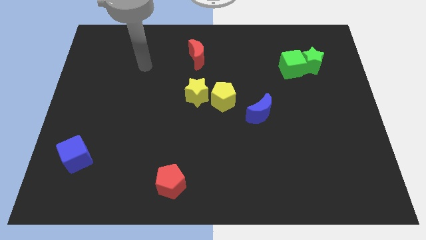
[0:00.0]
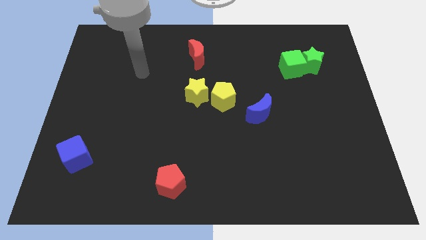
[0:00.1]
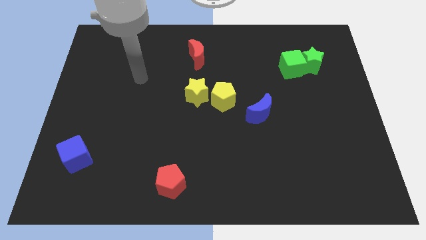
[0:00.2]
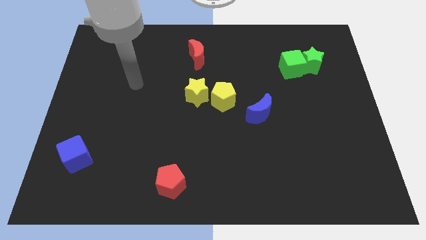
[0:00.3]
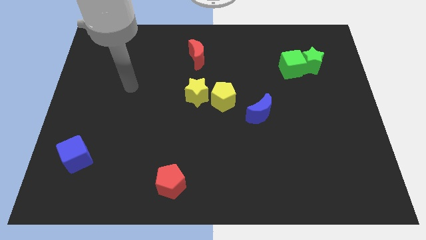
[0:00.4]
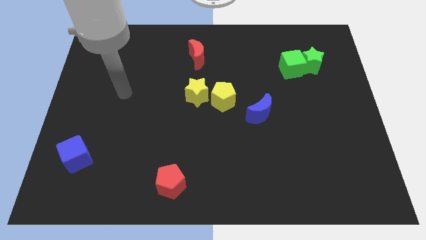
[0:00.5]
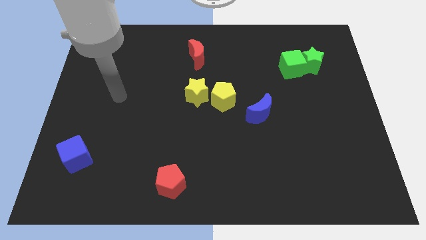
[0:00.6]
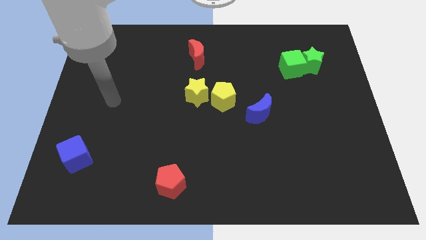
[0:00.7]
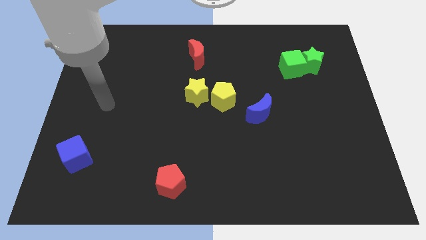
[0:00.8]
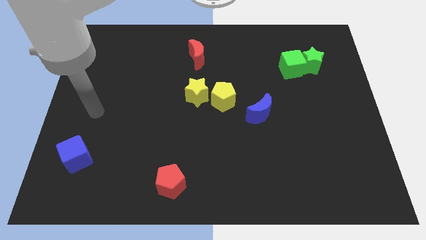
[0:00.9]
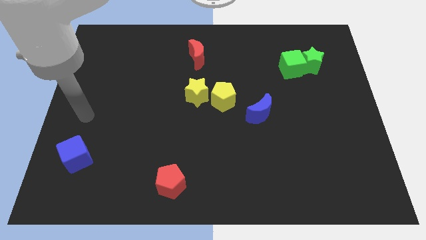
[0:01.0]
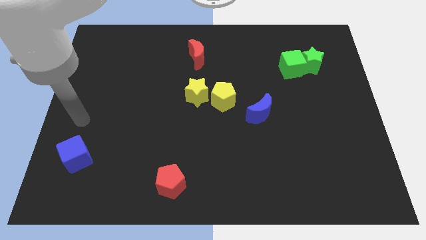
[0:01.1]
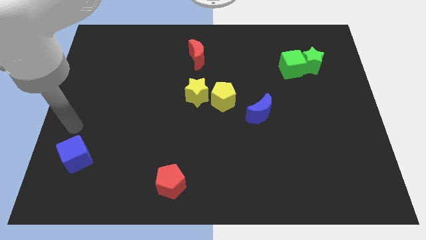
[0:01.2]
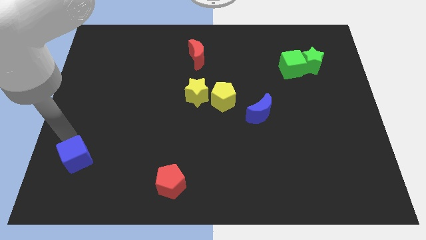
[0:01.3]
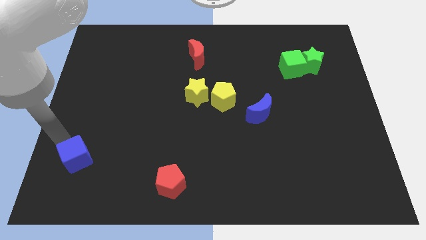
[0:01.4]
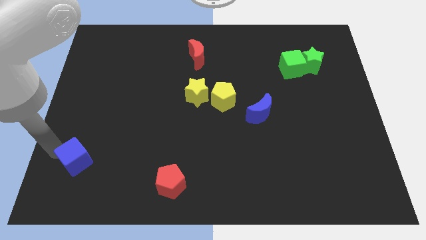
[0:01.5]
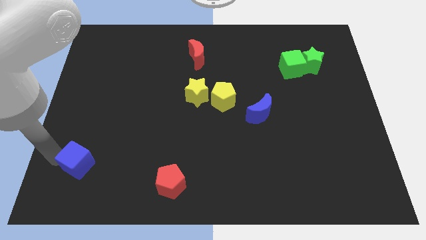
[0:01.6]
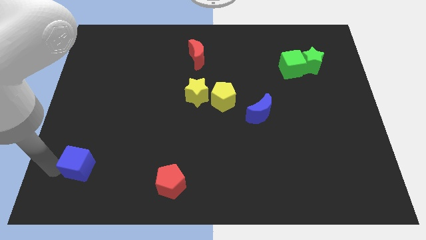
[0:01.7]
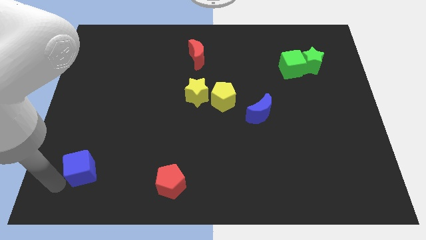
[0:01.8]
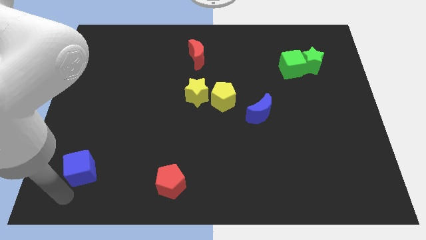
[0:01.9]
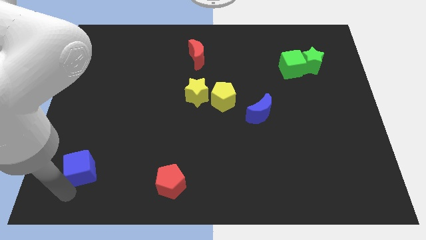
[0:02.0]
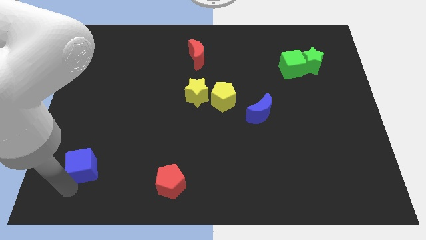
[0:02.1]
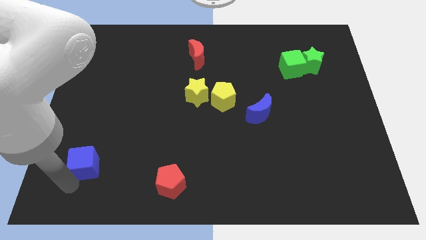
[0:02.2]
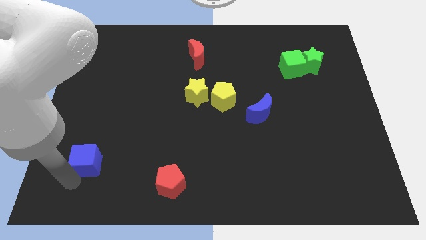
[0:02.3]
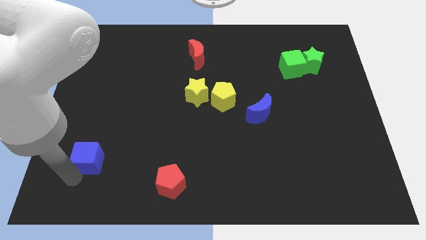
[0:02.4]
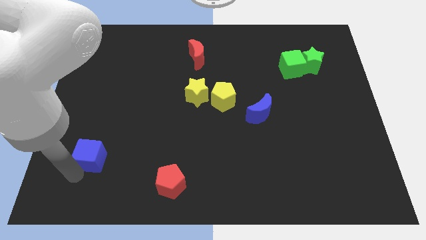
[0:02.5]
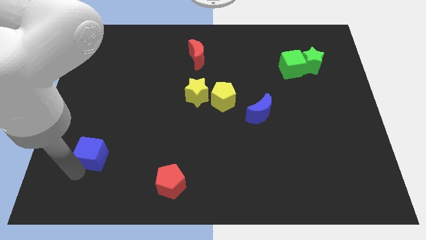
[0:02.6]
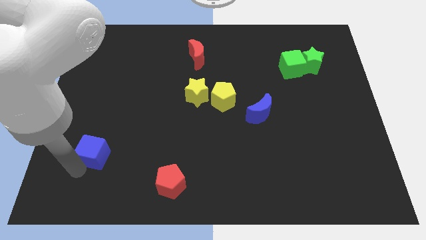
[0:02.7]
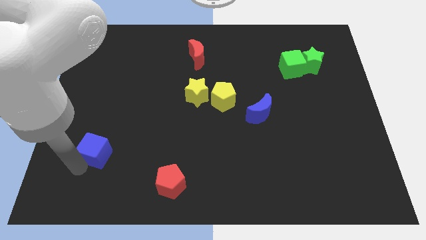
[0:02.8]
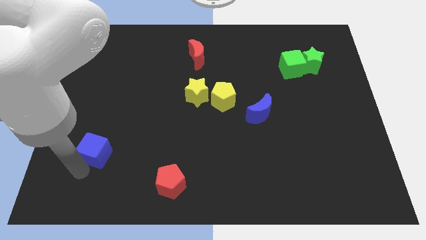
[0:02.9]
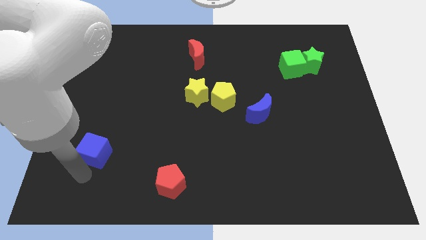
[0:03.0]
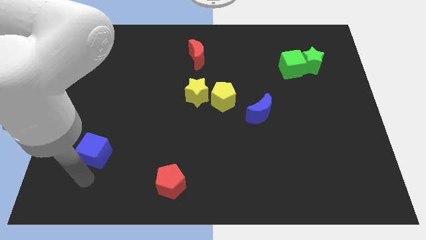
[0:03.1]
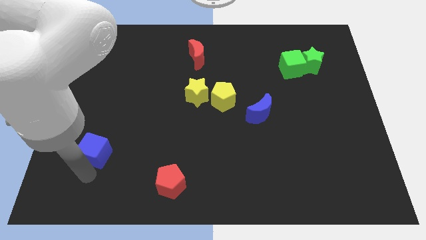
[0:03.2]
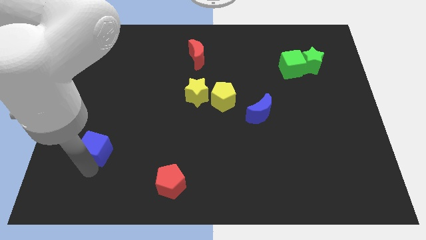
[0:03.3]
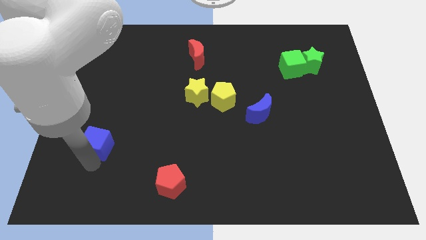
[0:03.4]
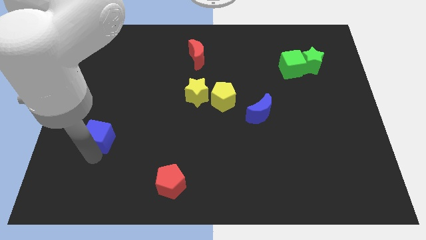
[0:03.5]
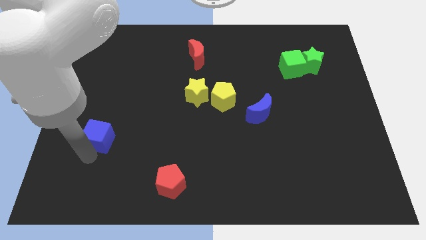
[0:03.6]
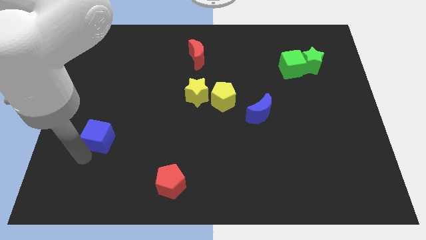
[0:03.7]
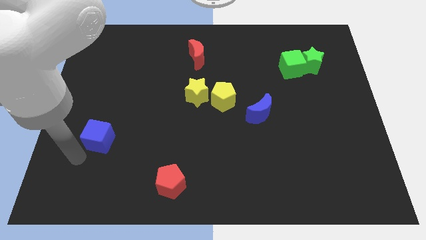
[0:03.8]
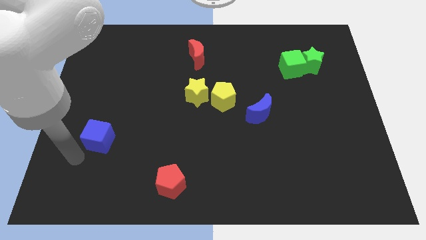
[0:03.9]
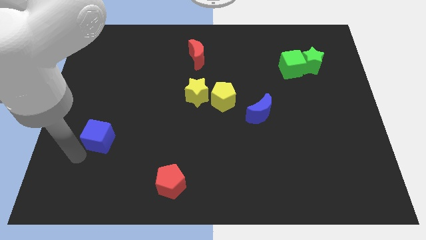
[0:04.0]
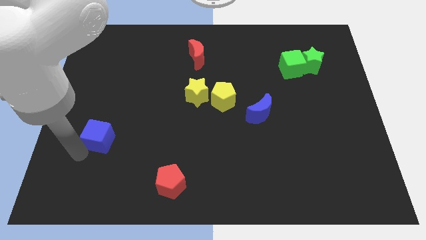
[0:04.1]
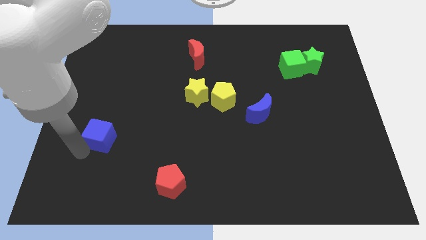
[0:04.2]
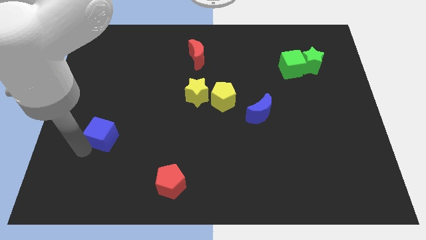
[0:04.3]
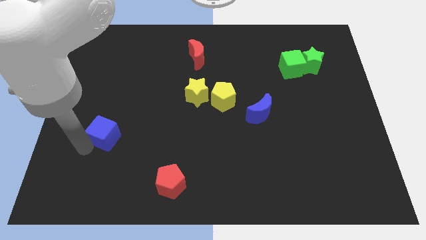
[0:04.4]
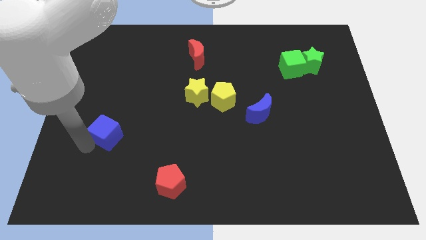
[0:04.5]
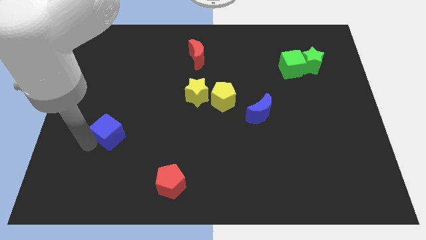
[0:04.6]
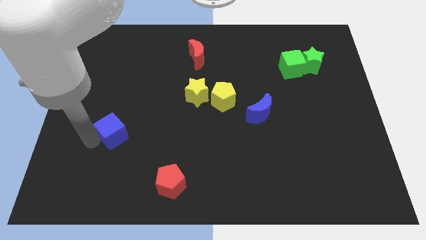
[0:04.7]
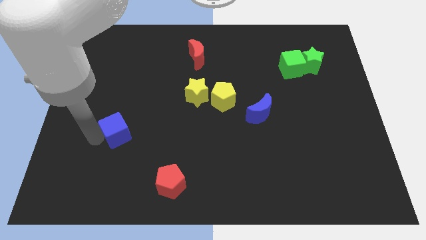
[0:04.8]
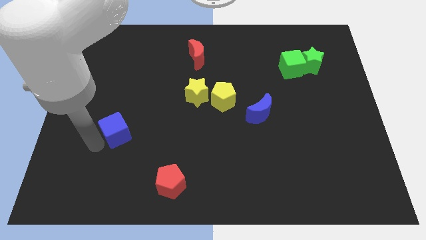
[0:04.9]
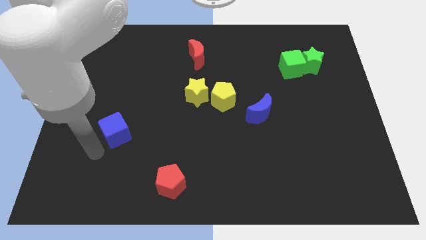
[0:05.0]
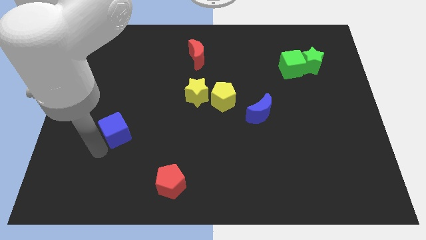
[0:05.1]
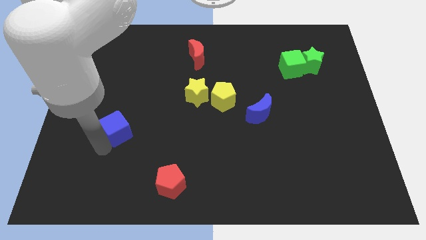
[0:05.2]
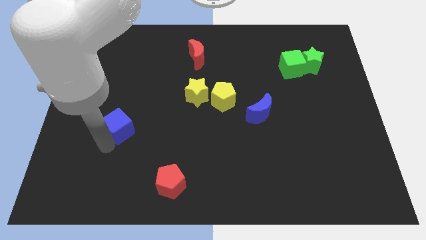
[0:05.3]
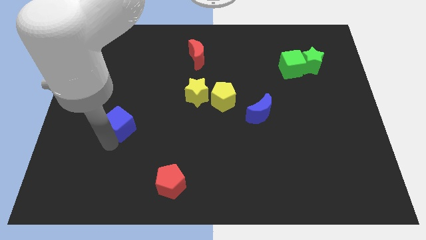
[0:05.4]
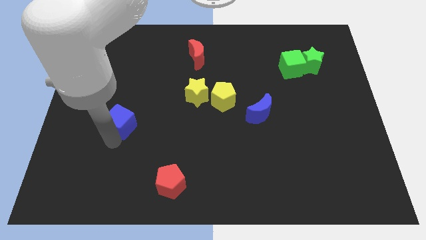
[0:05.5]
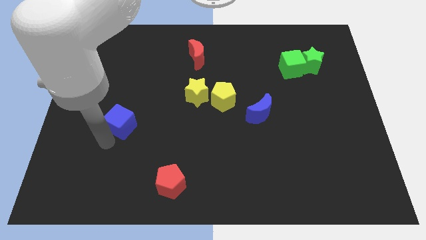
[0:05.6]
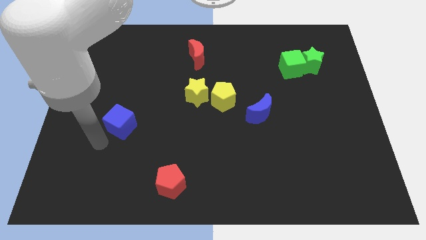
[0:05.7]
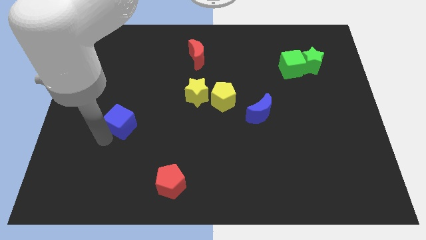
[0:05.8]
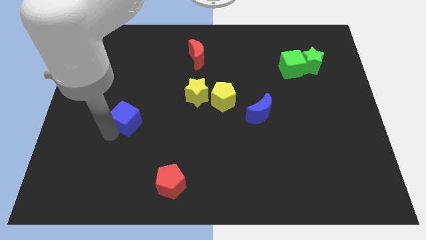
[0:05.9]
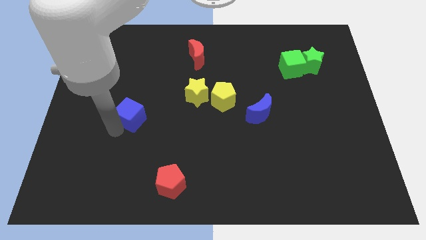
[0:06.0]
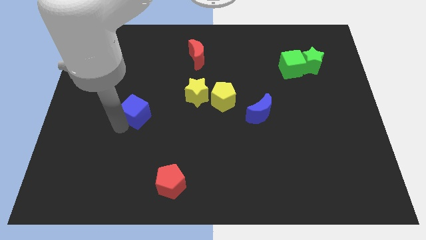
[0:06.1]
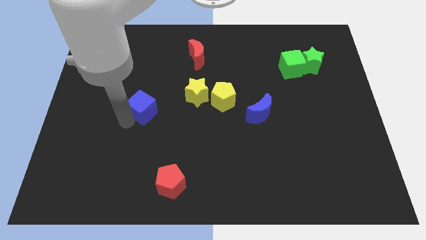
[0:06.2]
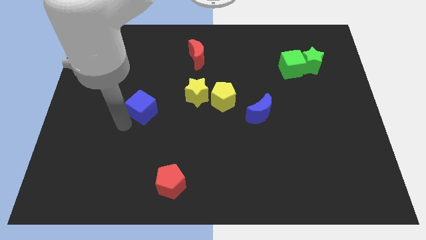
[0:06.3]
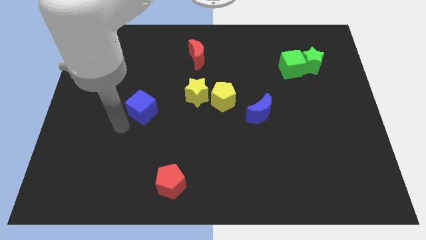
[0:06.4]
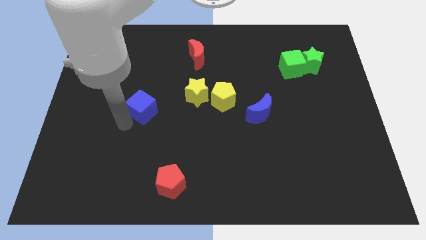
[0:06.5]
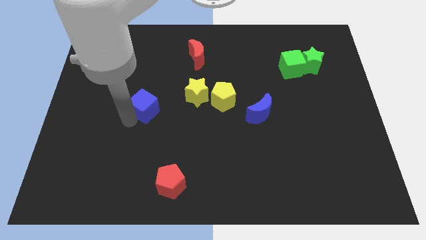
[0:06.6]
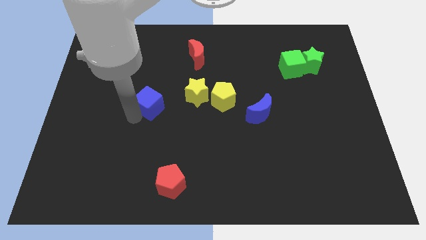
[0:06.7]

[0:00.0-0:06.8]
push the blue cube upwards and to the right

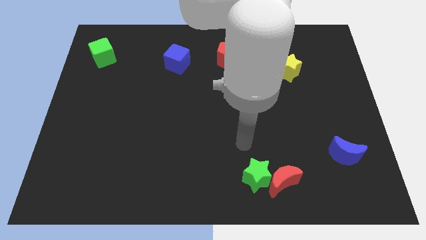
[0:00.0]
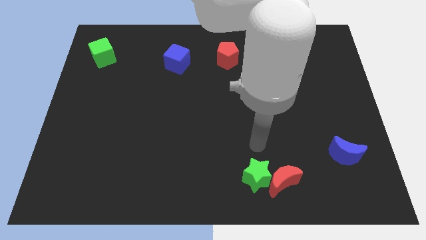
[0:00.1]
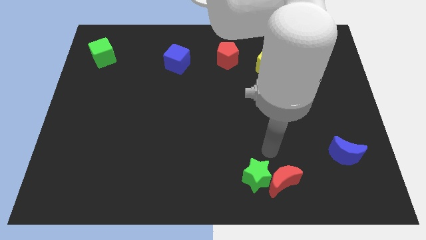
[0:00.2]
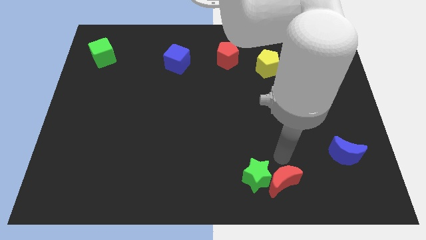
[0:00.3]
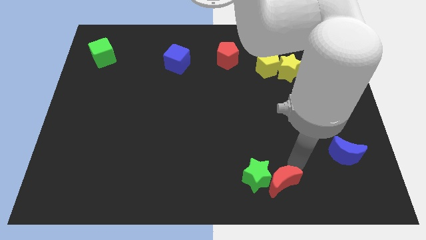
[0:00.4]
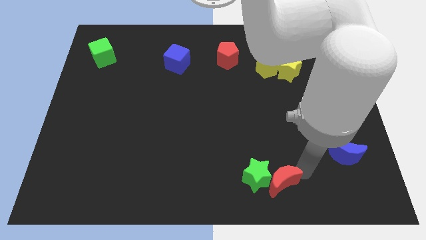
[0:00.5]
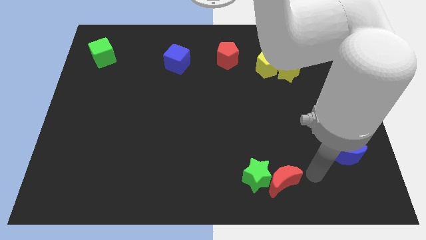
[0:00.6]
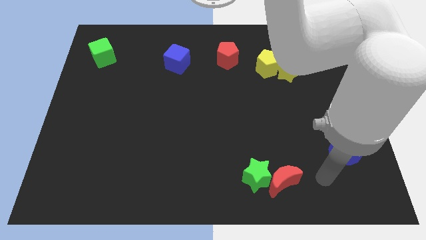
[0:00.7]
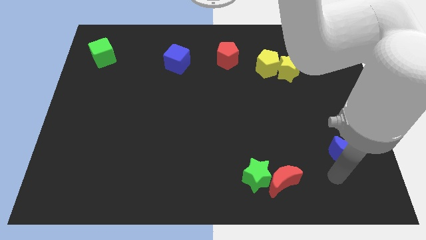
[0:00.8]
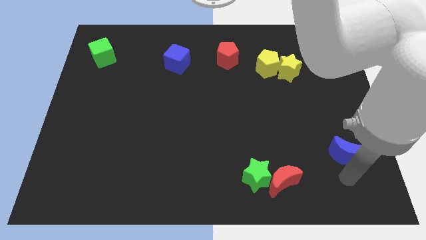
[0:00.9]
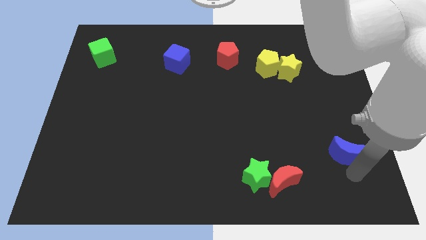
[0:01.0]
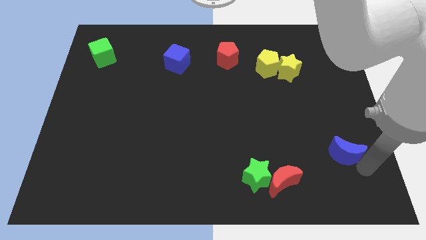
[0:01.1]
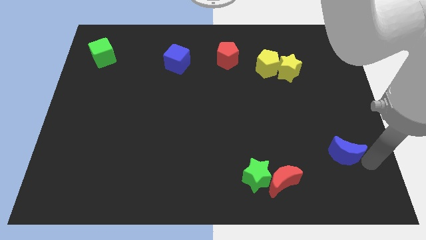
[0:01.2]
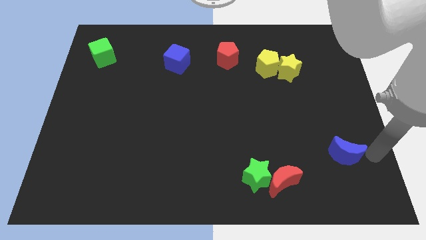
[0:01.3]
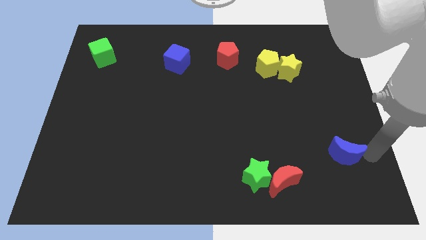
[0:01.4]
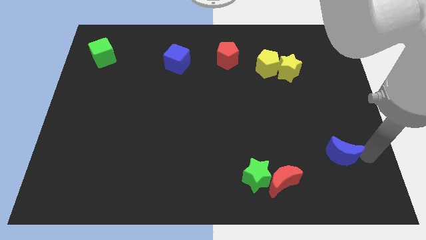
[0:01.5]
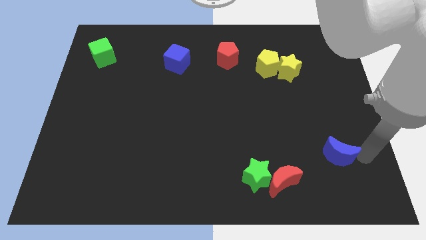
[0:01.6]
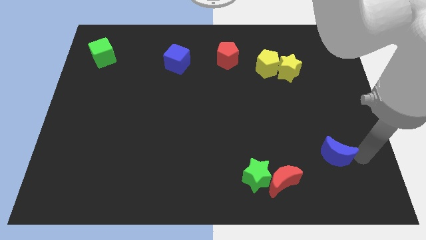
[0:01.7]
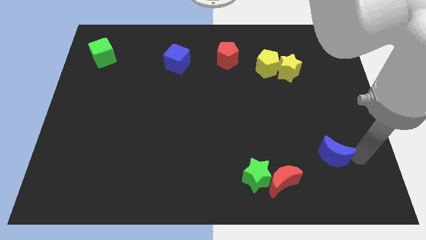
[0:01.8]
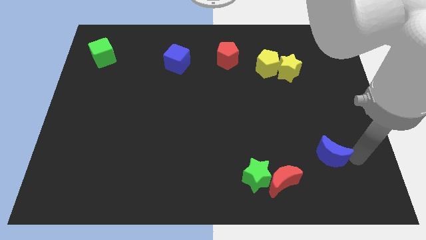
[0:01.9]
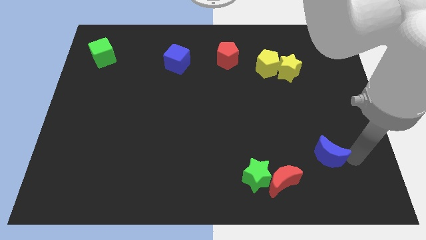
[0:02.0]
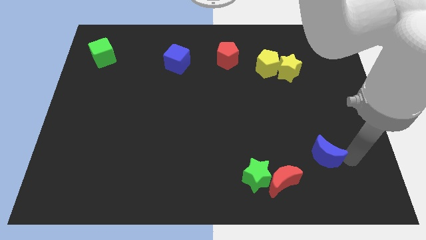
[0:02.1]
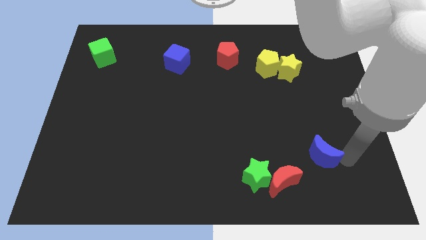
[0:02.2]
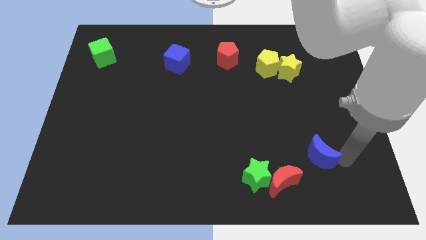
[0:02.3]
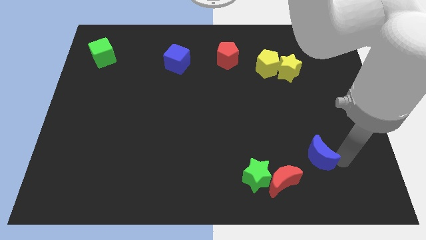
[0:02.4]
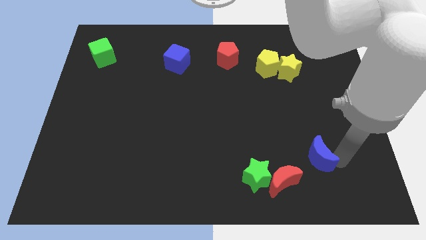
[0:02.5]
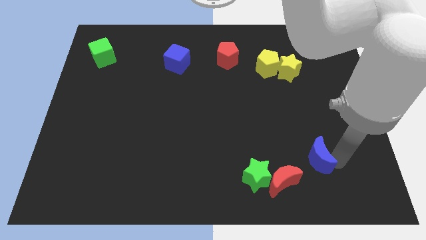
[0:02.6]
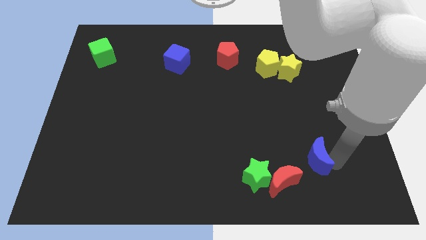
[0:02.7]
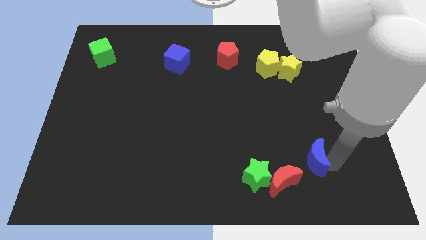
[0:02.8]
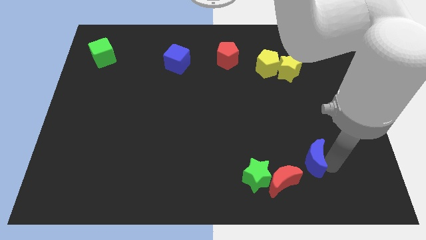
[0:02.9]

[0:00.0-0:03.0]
slightly slide the blue moon to the left
